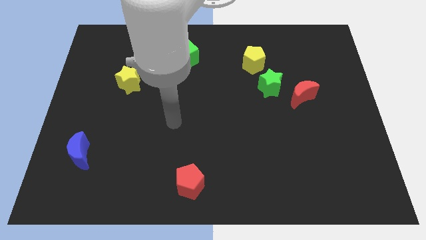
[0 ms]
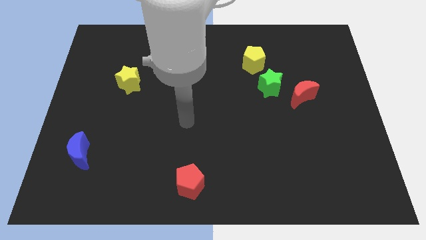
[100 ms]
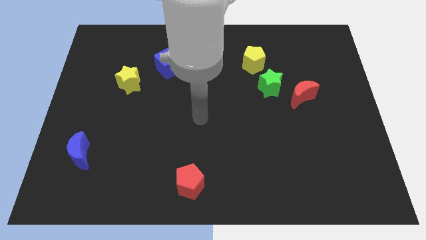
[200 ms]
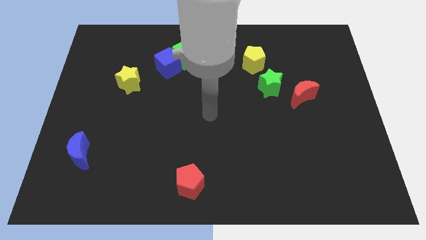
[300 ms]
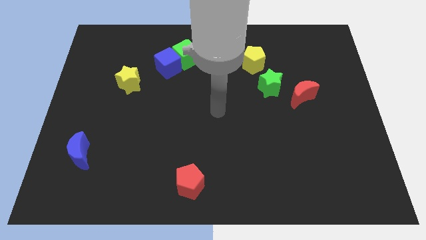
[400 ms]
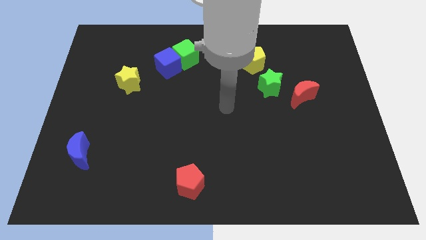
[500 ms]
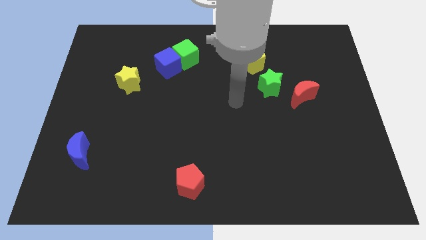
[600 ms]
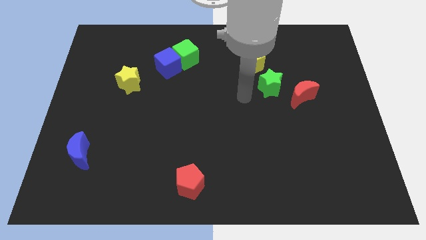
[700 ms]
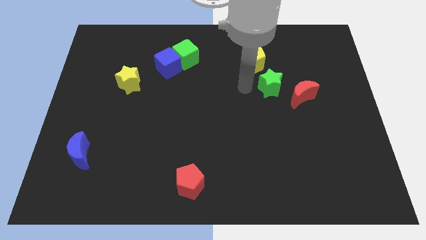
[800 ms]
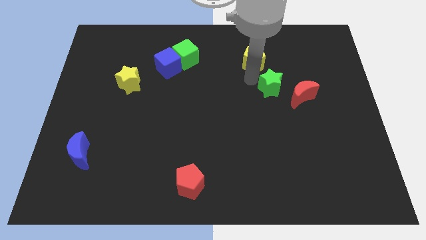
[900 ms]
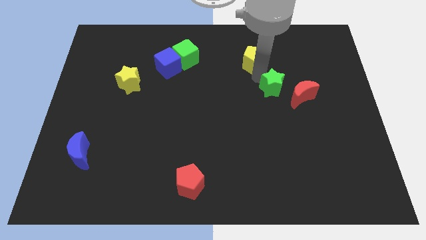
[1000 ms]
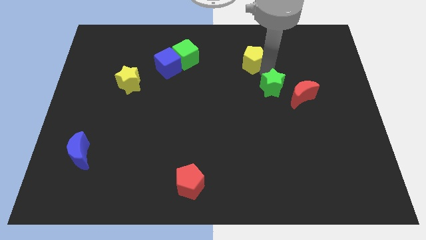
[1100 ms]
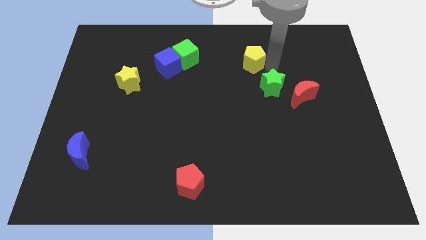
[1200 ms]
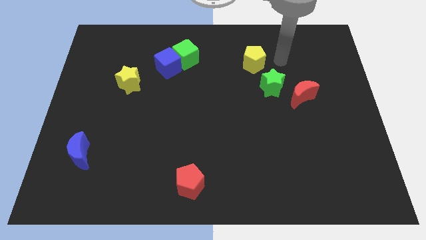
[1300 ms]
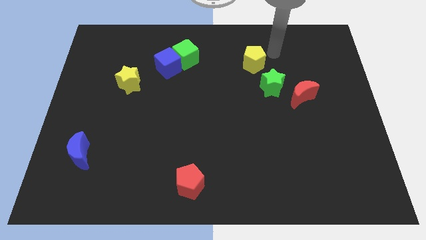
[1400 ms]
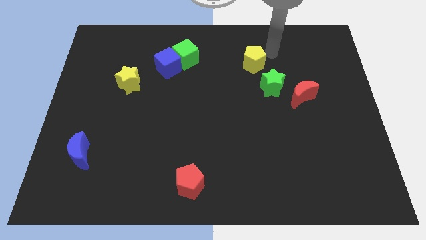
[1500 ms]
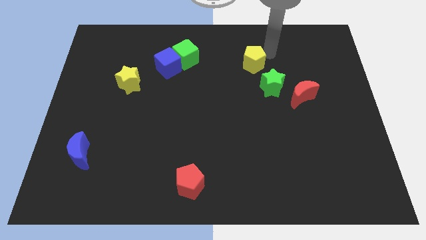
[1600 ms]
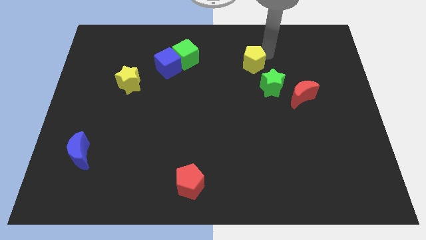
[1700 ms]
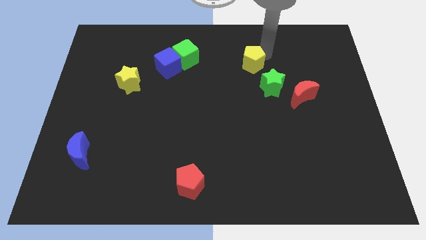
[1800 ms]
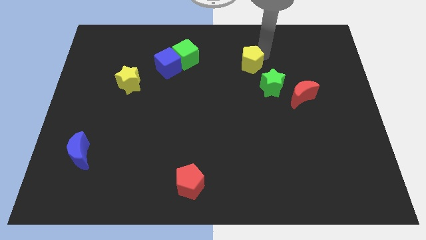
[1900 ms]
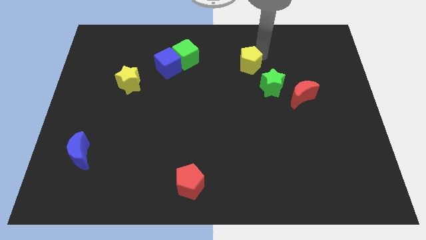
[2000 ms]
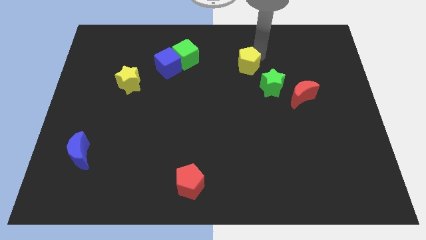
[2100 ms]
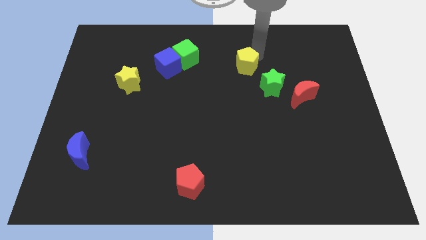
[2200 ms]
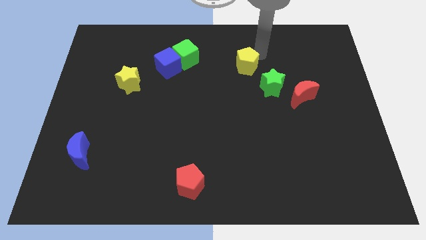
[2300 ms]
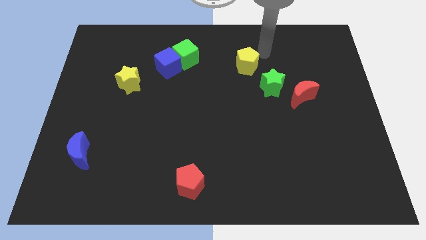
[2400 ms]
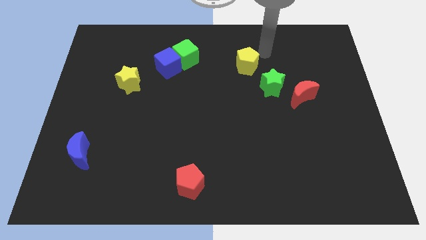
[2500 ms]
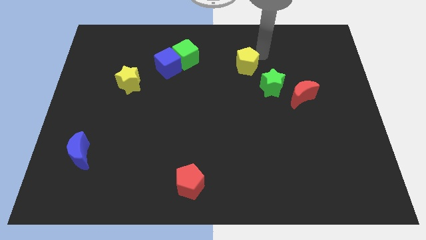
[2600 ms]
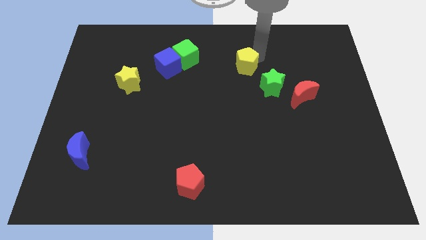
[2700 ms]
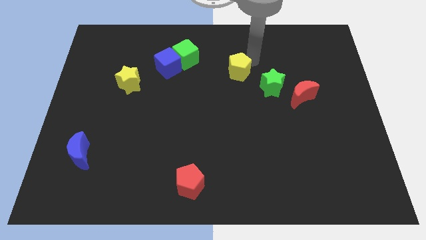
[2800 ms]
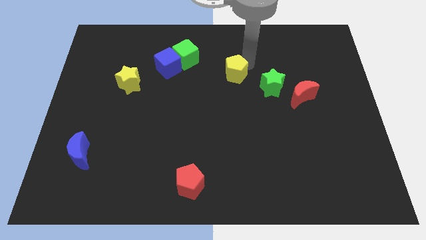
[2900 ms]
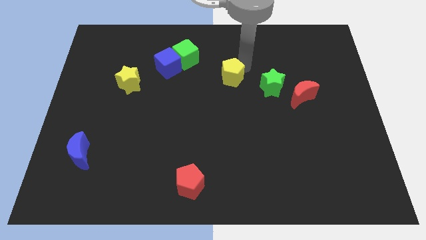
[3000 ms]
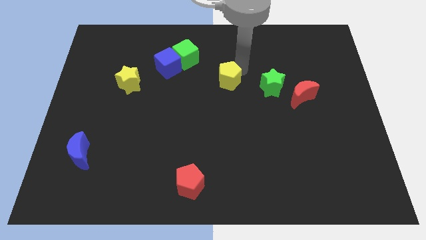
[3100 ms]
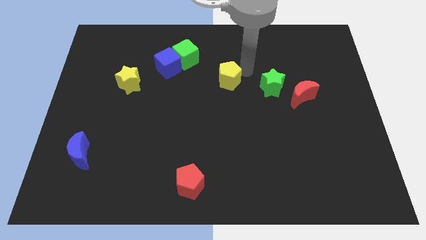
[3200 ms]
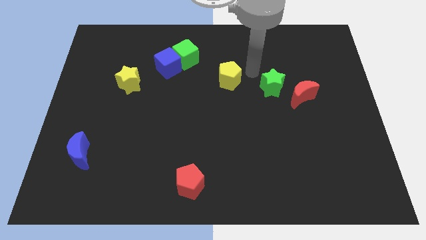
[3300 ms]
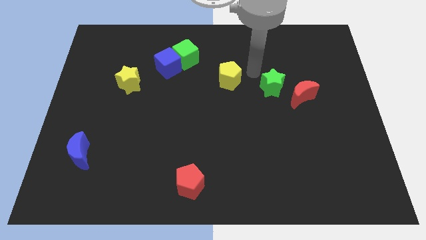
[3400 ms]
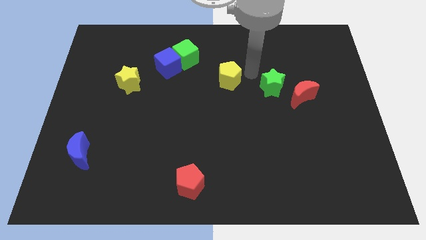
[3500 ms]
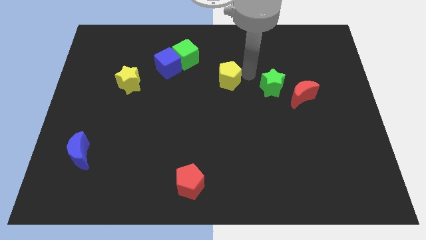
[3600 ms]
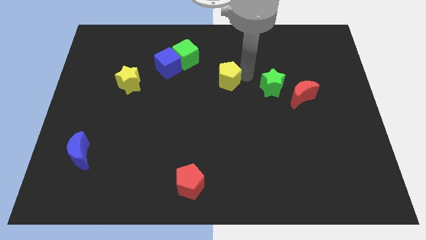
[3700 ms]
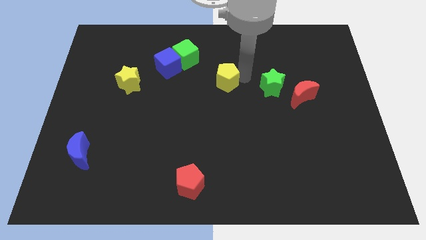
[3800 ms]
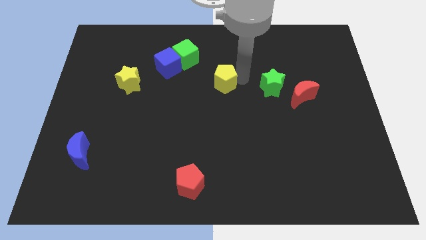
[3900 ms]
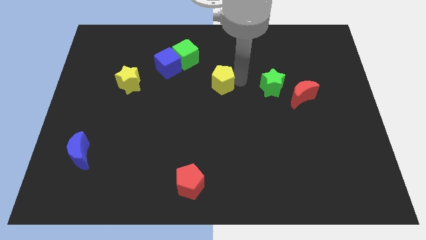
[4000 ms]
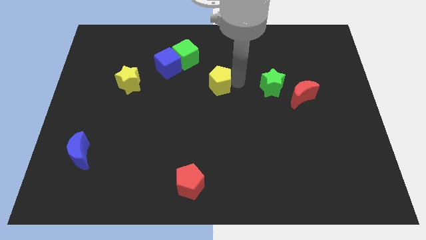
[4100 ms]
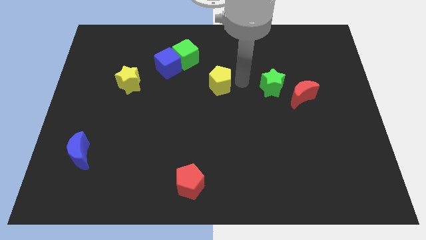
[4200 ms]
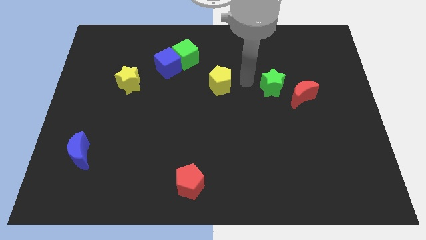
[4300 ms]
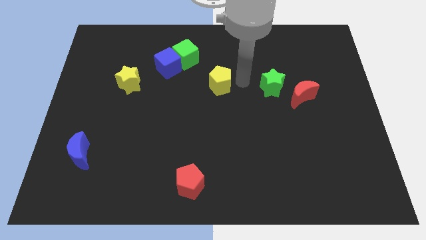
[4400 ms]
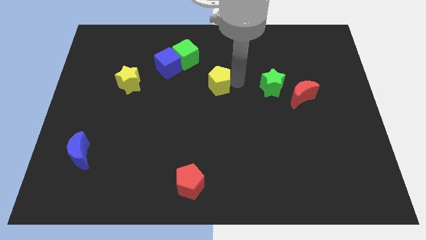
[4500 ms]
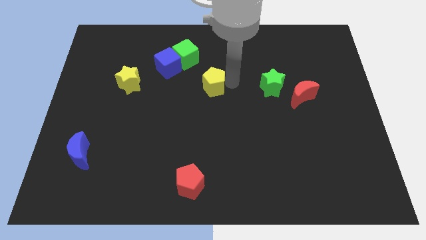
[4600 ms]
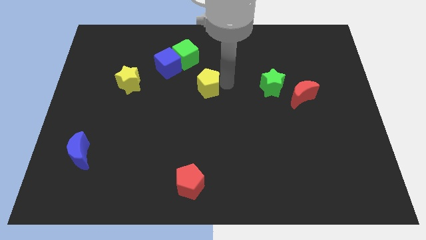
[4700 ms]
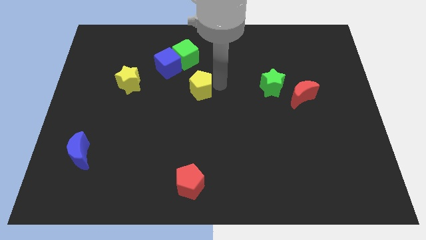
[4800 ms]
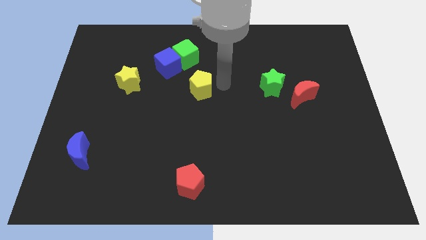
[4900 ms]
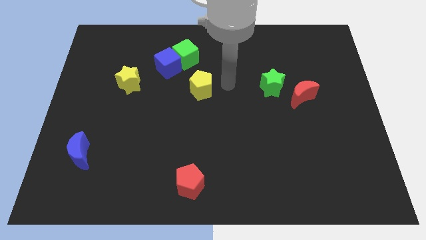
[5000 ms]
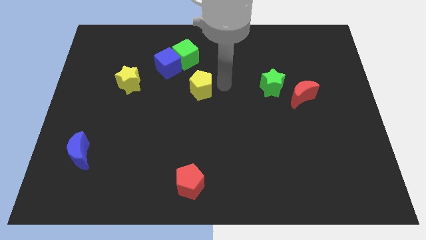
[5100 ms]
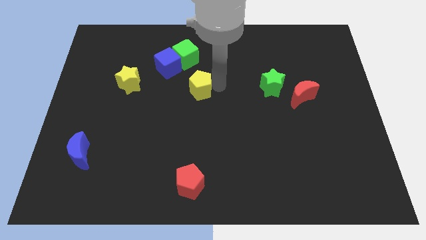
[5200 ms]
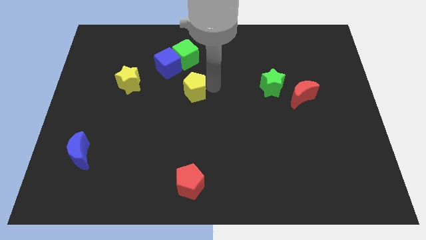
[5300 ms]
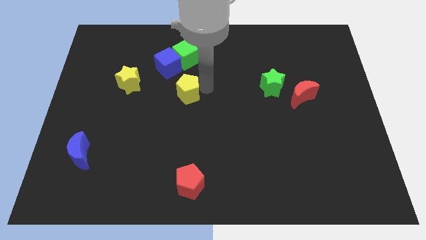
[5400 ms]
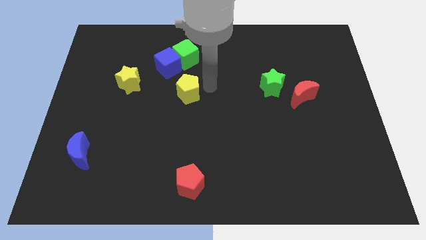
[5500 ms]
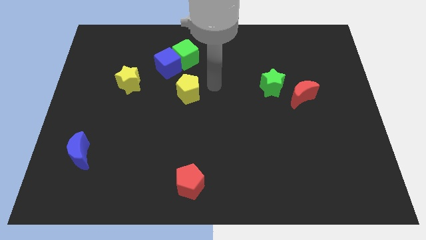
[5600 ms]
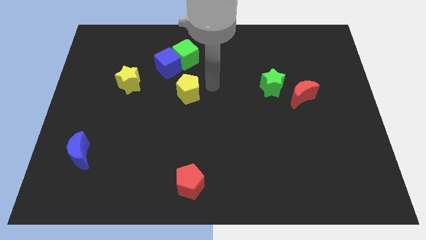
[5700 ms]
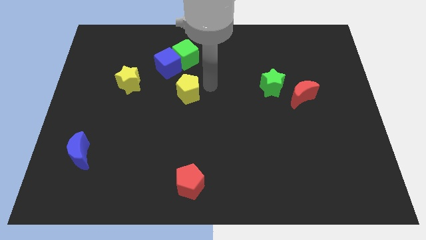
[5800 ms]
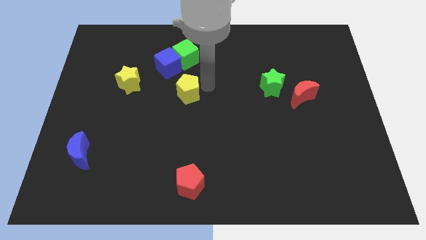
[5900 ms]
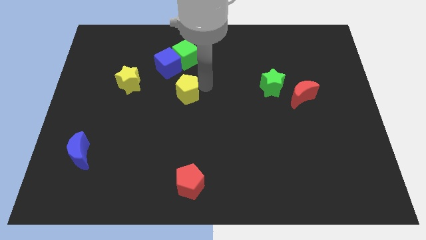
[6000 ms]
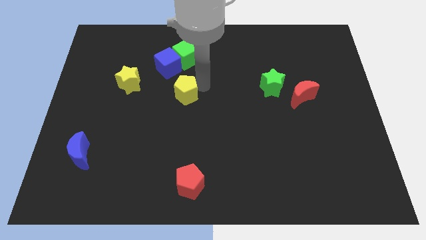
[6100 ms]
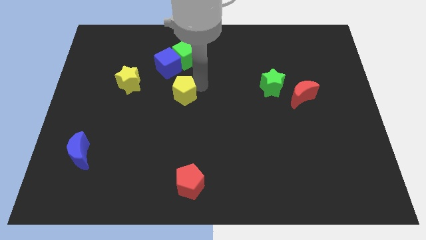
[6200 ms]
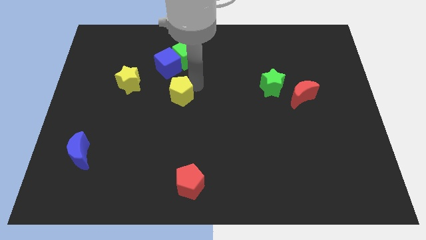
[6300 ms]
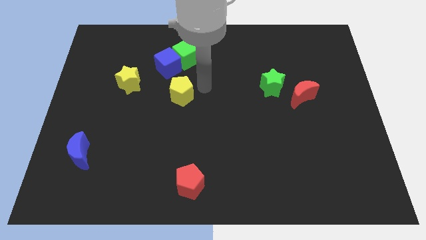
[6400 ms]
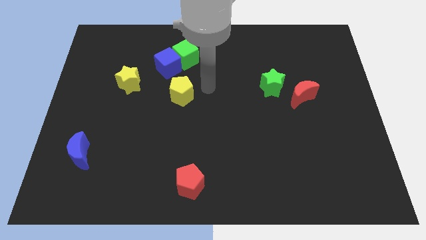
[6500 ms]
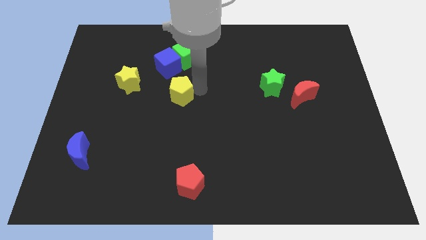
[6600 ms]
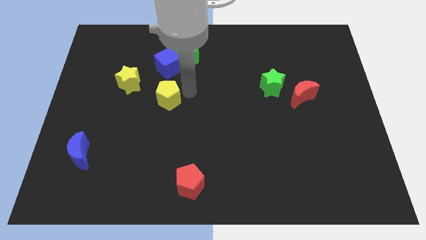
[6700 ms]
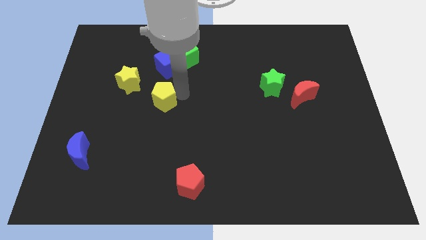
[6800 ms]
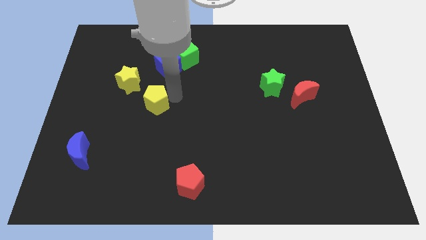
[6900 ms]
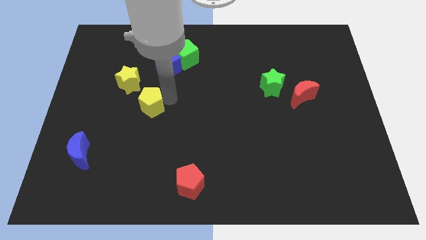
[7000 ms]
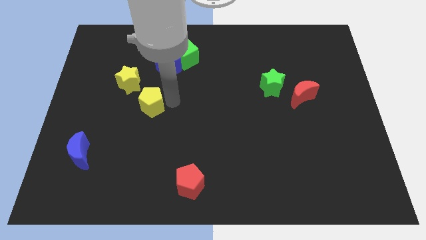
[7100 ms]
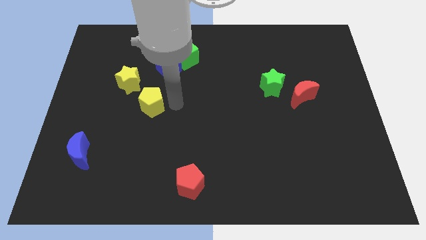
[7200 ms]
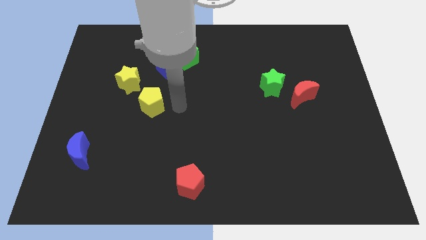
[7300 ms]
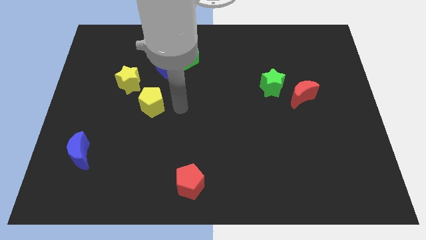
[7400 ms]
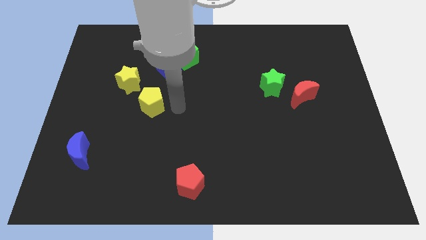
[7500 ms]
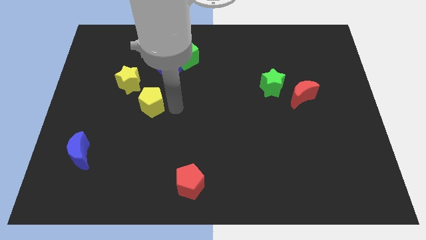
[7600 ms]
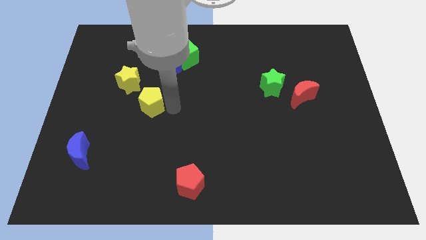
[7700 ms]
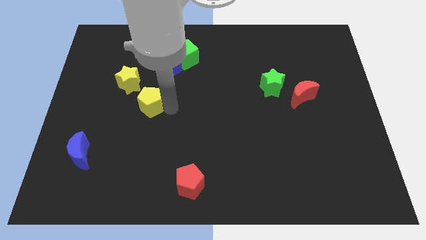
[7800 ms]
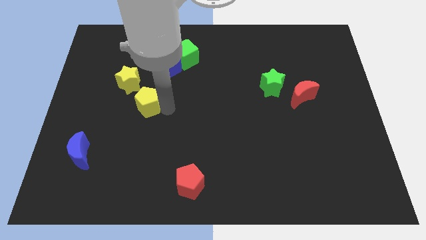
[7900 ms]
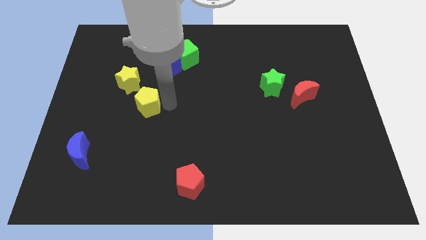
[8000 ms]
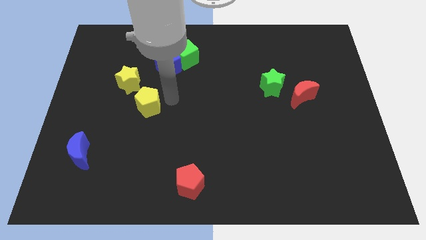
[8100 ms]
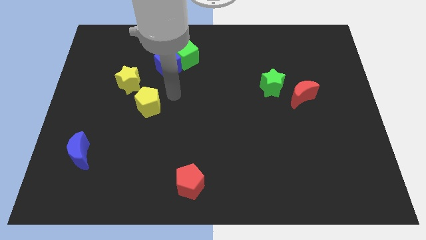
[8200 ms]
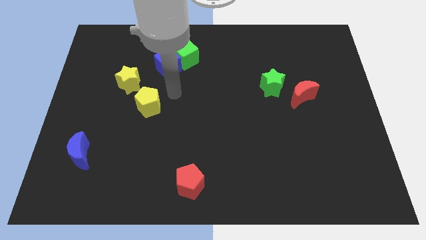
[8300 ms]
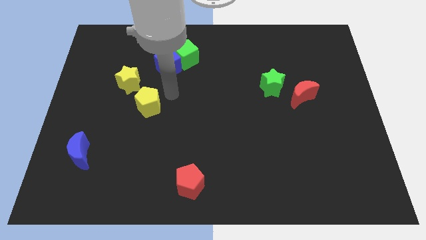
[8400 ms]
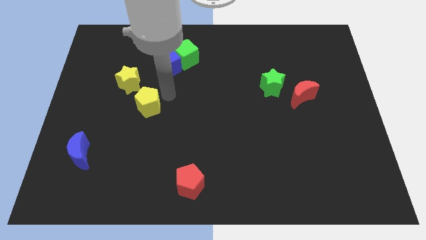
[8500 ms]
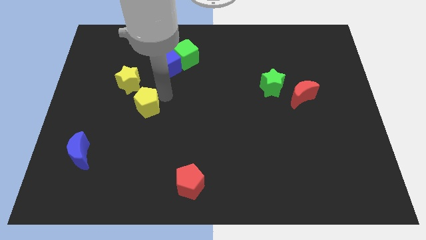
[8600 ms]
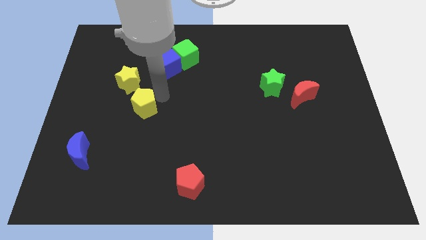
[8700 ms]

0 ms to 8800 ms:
push the yellow pentagon to the bottom side of the yellow star
